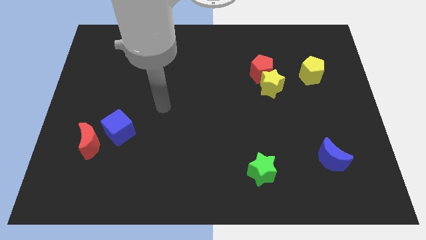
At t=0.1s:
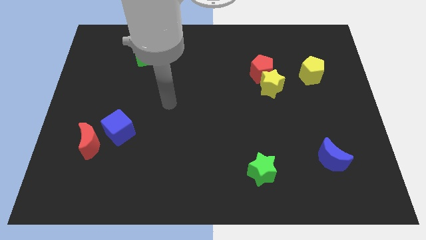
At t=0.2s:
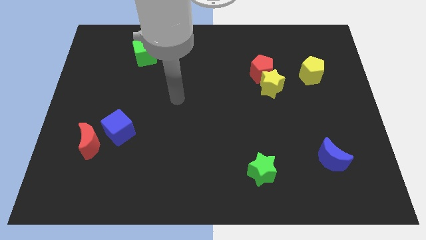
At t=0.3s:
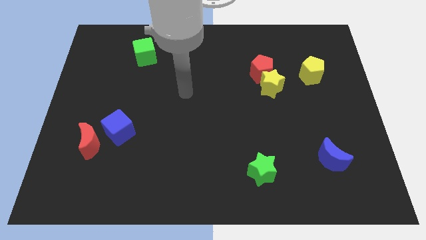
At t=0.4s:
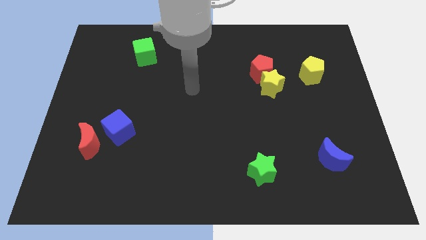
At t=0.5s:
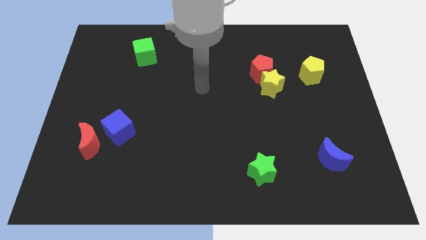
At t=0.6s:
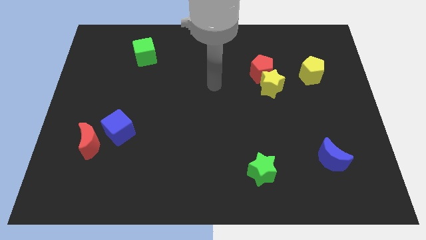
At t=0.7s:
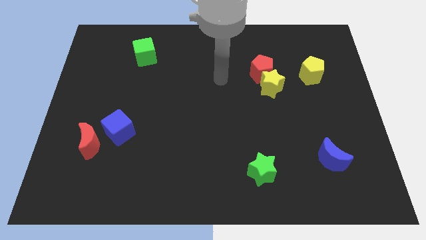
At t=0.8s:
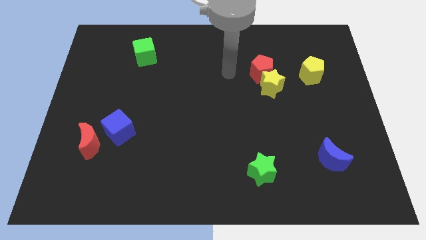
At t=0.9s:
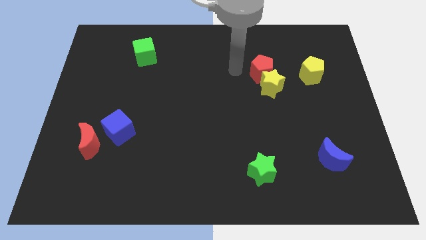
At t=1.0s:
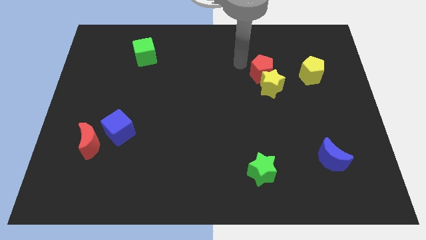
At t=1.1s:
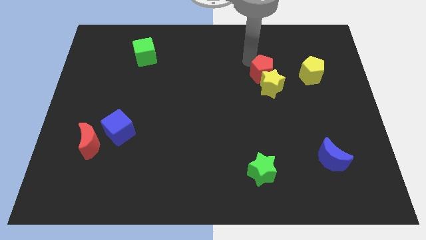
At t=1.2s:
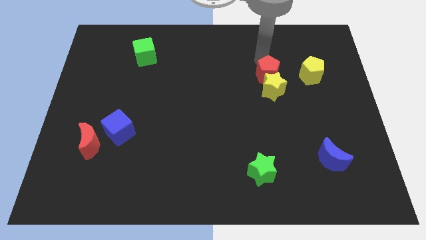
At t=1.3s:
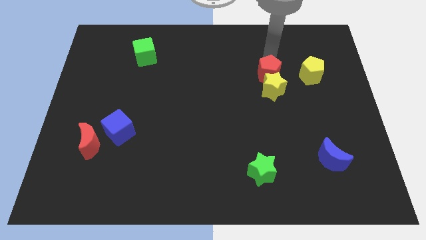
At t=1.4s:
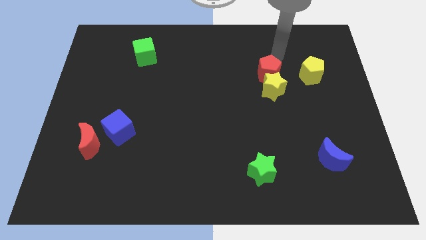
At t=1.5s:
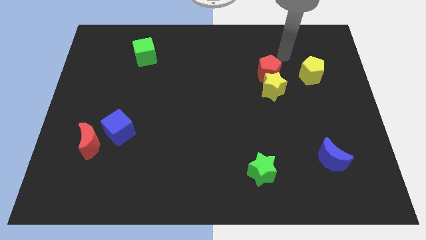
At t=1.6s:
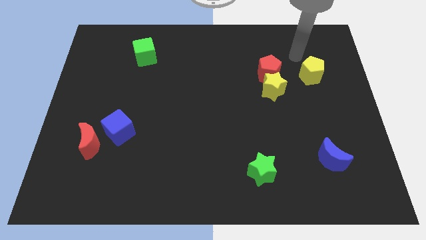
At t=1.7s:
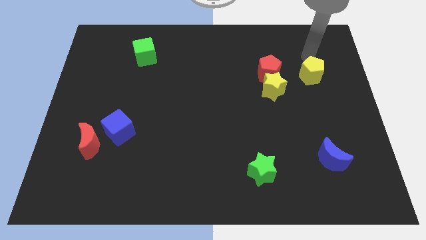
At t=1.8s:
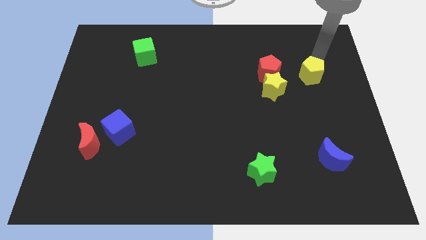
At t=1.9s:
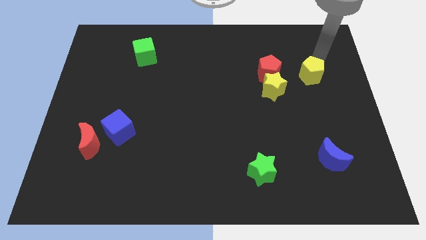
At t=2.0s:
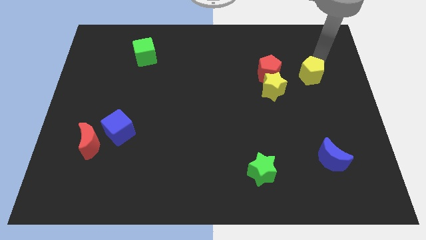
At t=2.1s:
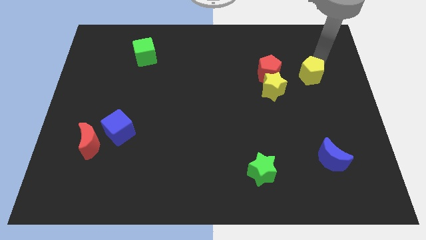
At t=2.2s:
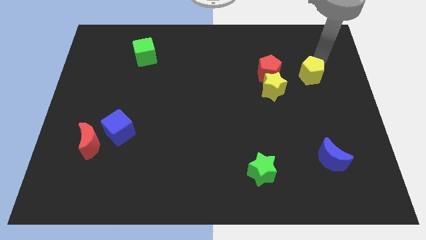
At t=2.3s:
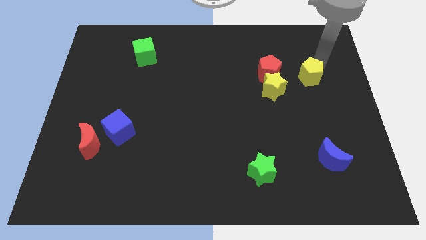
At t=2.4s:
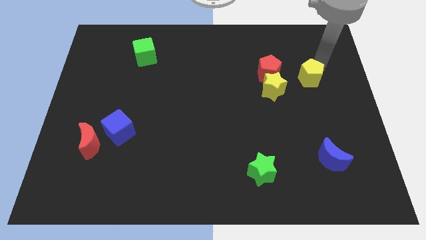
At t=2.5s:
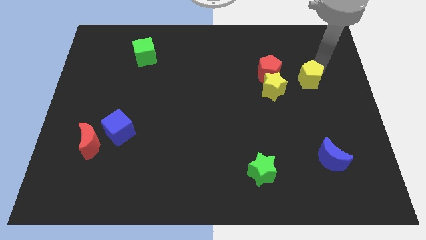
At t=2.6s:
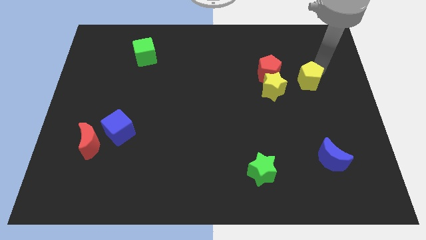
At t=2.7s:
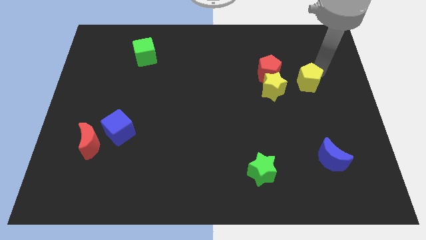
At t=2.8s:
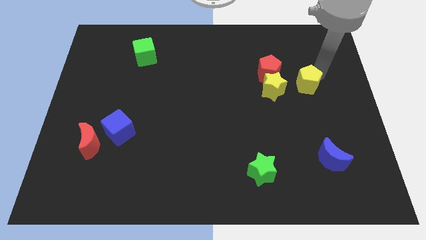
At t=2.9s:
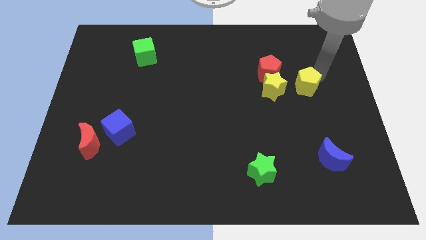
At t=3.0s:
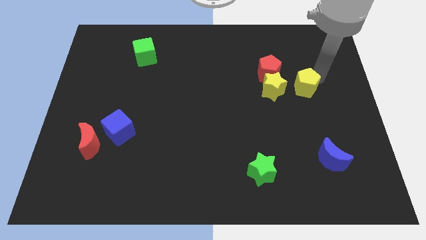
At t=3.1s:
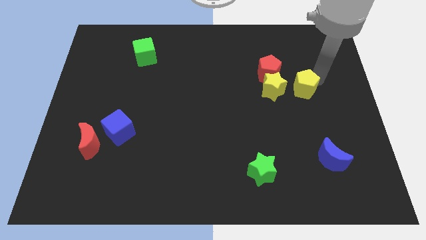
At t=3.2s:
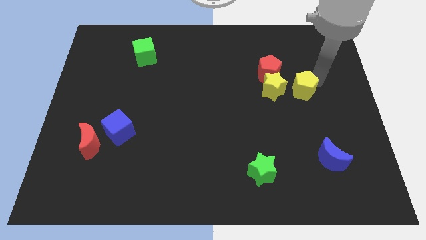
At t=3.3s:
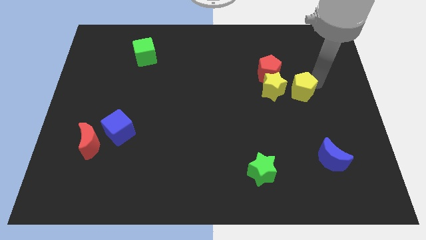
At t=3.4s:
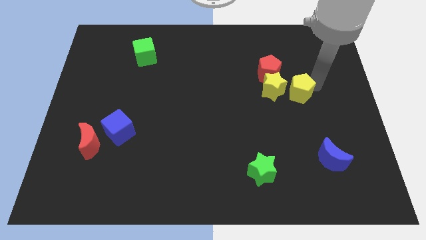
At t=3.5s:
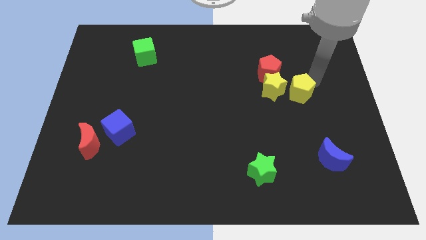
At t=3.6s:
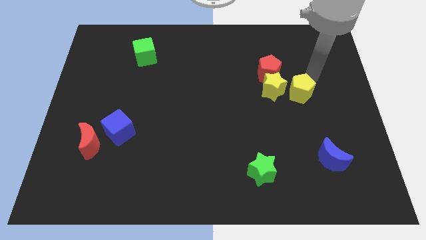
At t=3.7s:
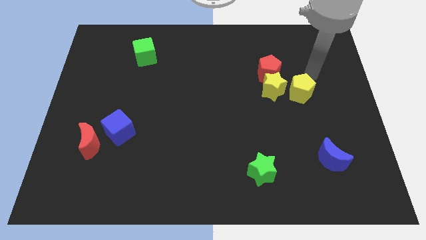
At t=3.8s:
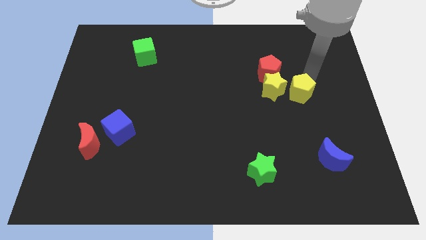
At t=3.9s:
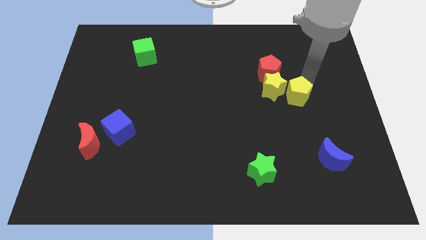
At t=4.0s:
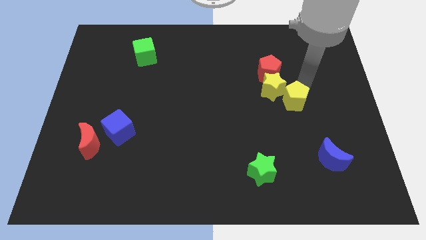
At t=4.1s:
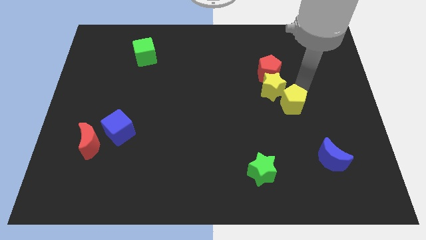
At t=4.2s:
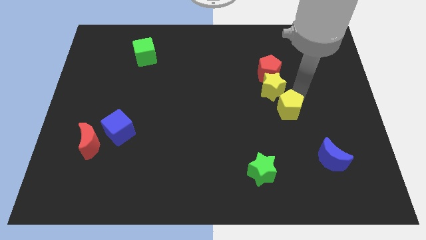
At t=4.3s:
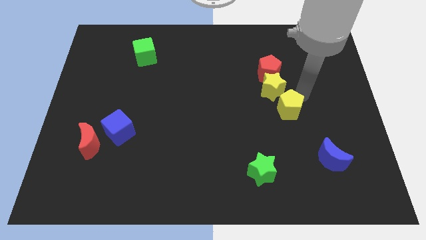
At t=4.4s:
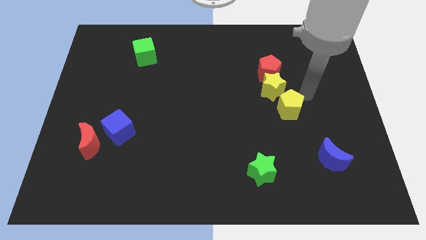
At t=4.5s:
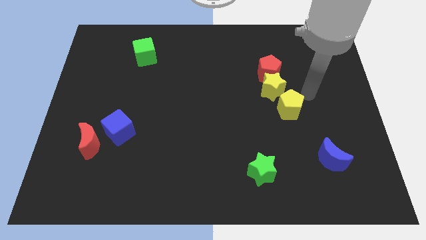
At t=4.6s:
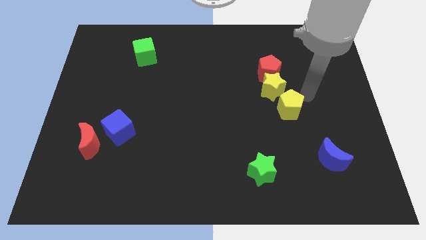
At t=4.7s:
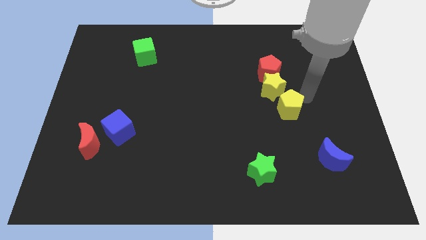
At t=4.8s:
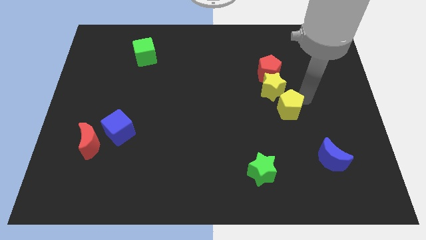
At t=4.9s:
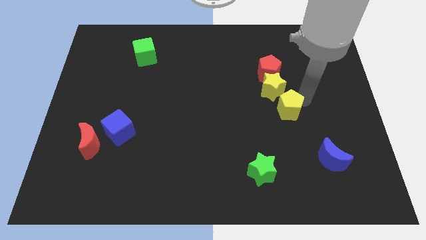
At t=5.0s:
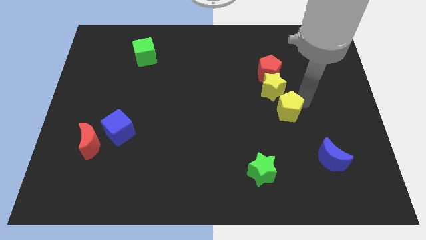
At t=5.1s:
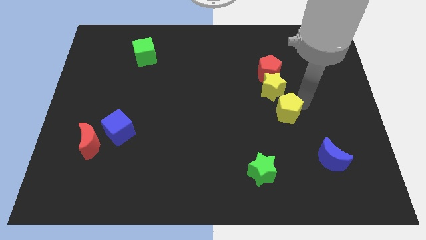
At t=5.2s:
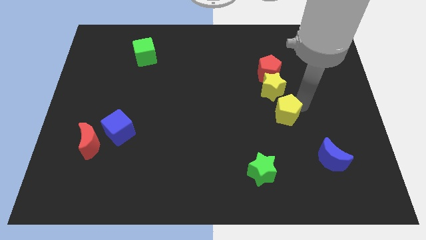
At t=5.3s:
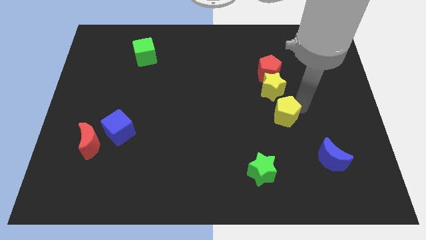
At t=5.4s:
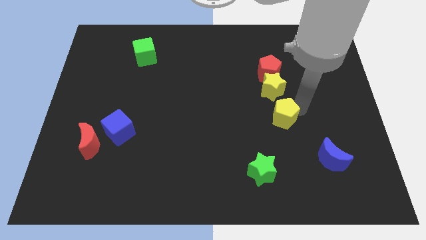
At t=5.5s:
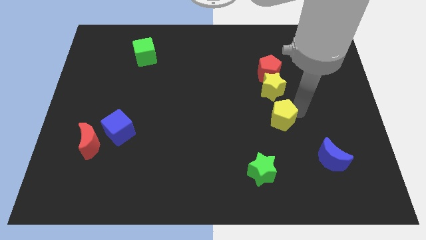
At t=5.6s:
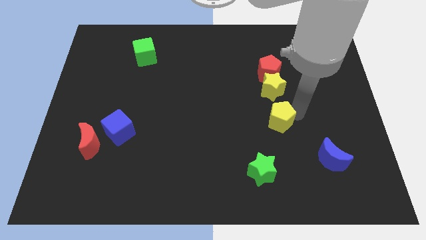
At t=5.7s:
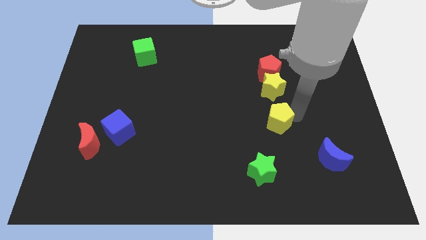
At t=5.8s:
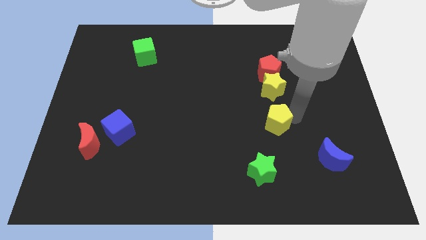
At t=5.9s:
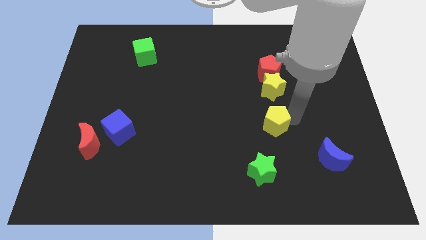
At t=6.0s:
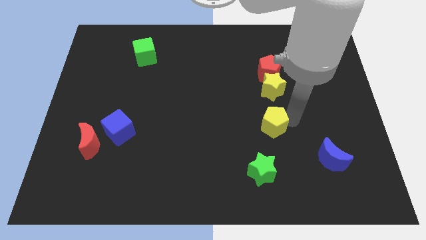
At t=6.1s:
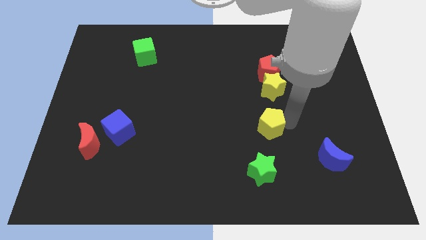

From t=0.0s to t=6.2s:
push the yellow pentagon diagonally down and left

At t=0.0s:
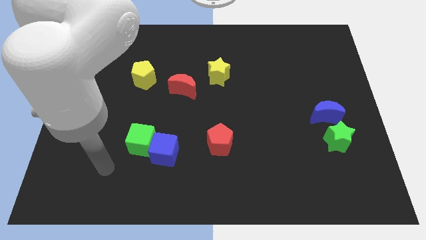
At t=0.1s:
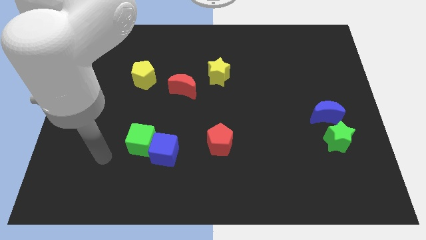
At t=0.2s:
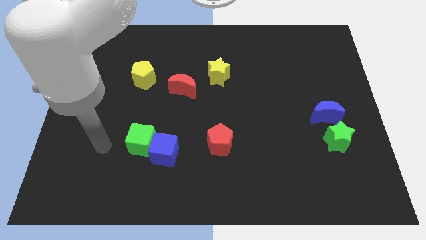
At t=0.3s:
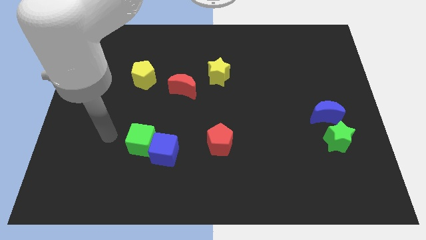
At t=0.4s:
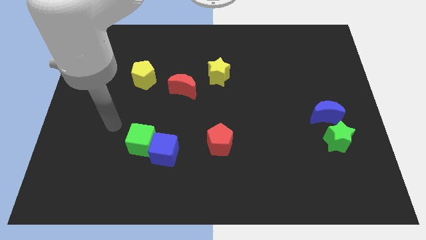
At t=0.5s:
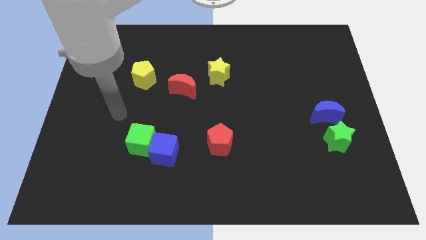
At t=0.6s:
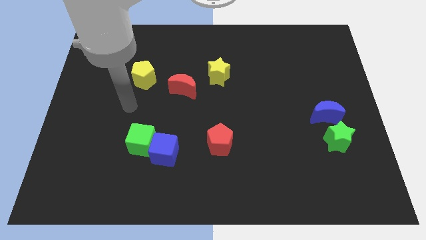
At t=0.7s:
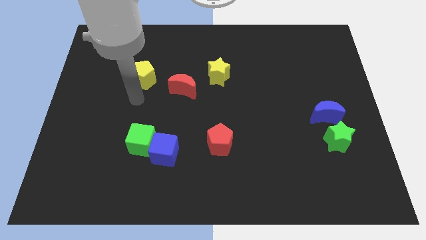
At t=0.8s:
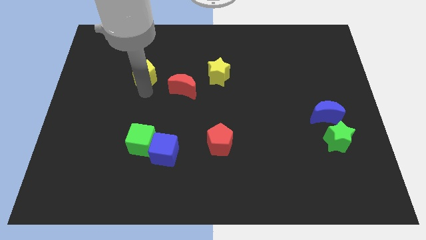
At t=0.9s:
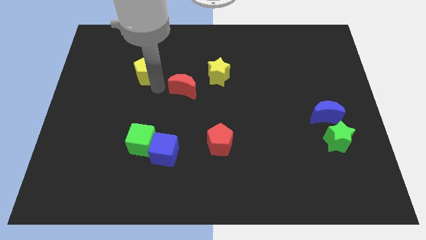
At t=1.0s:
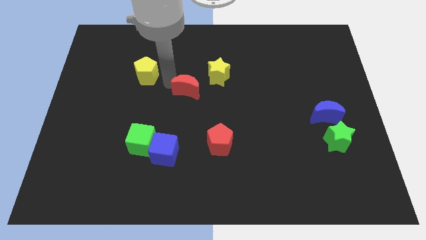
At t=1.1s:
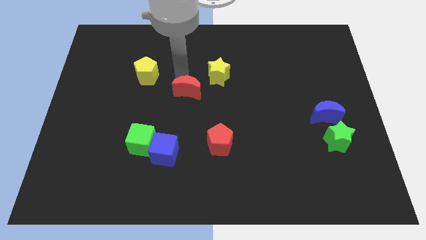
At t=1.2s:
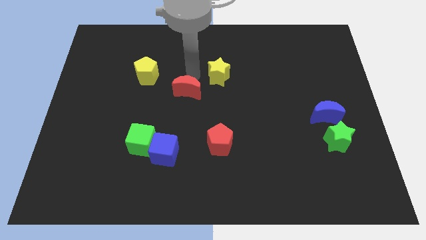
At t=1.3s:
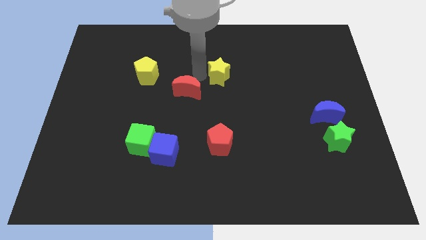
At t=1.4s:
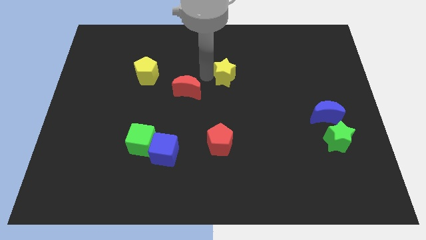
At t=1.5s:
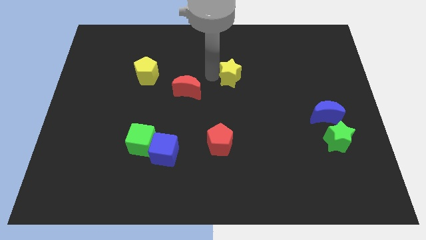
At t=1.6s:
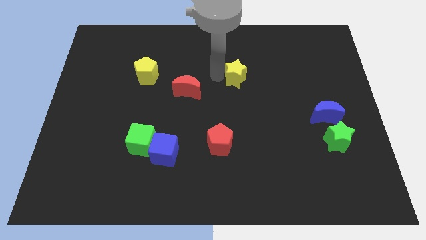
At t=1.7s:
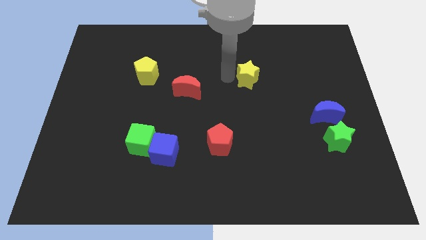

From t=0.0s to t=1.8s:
slightly slide the yellow star right
